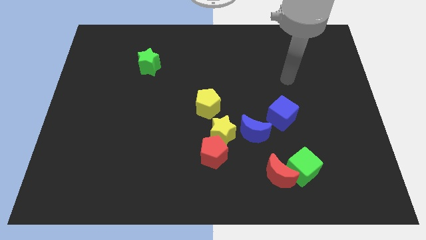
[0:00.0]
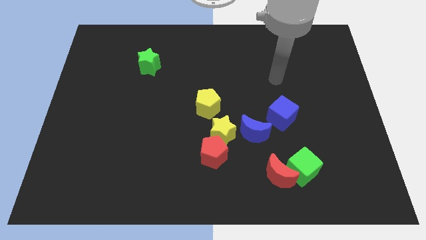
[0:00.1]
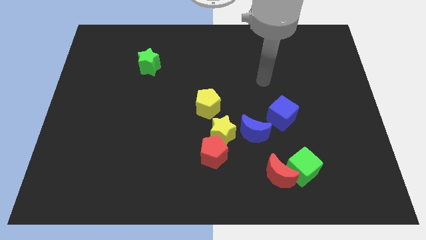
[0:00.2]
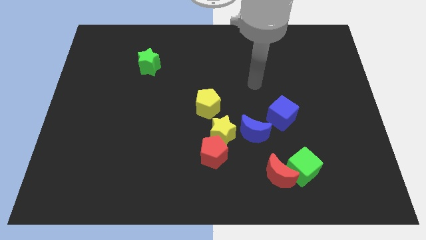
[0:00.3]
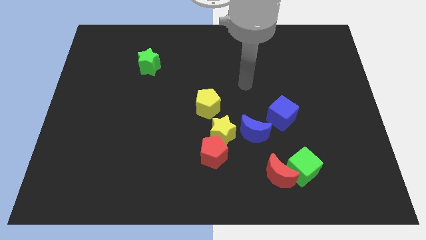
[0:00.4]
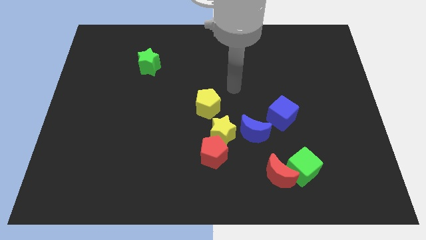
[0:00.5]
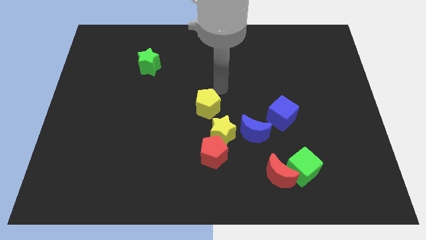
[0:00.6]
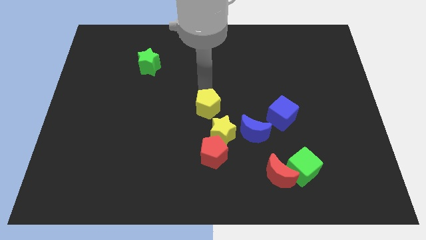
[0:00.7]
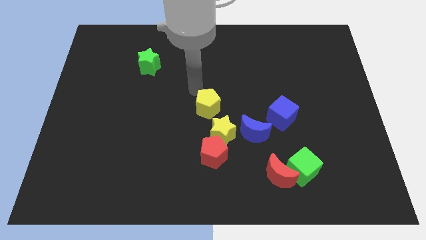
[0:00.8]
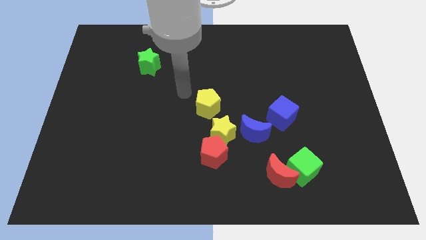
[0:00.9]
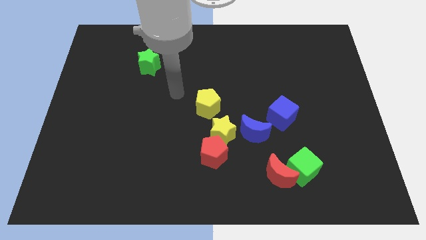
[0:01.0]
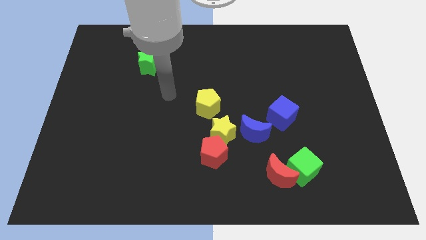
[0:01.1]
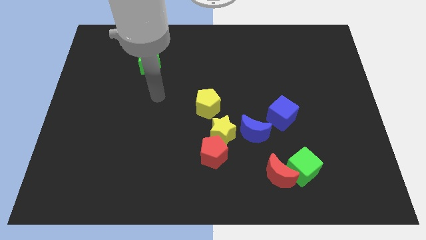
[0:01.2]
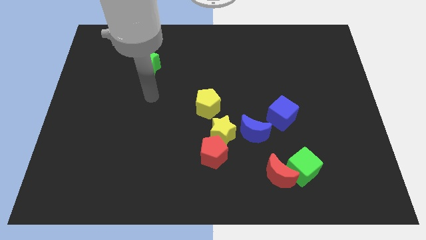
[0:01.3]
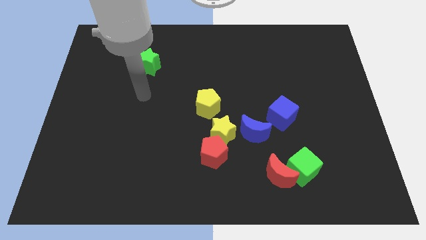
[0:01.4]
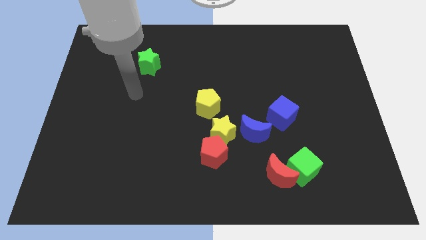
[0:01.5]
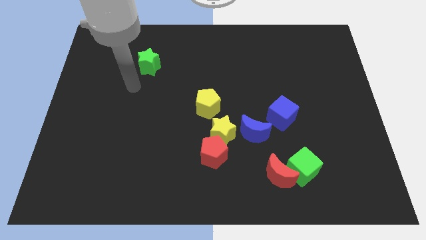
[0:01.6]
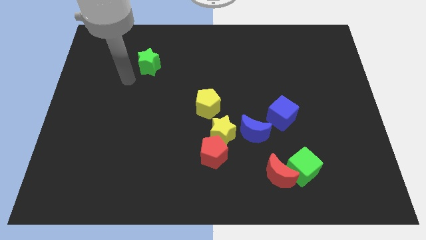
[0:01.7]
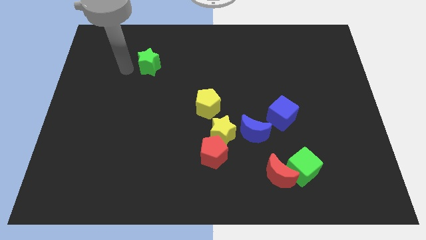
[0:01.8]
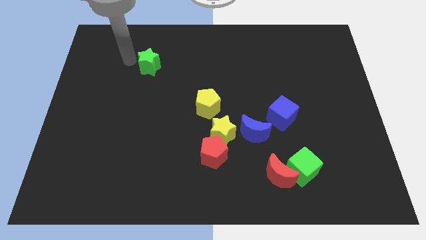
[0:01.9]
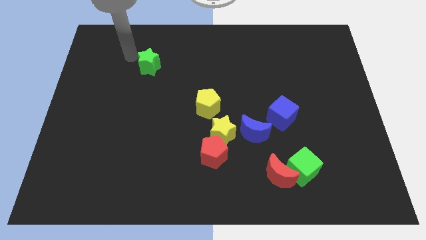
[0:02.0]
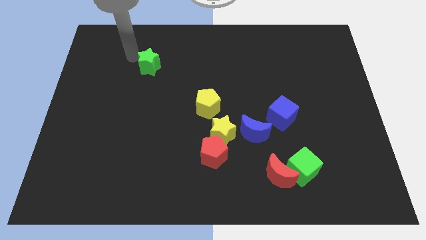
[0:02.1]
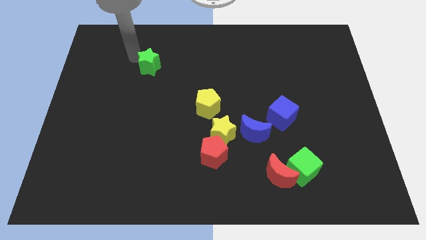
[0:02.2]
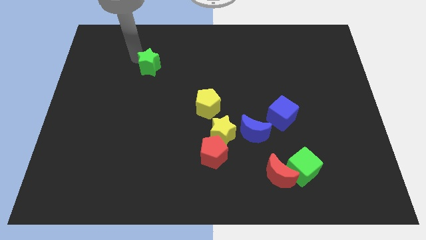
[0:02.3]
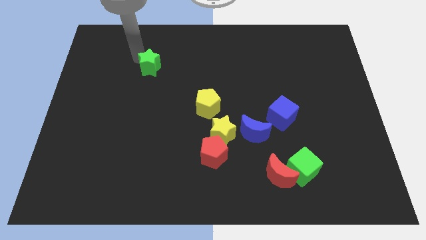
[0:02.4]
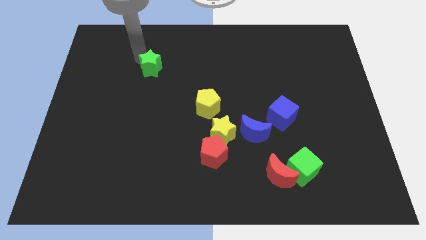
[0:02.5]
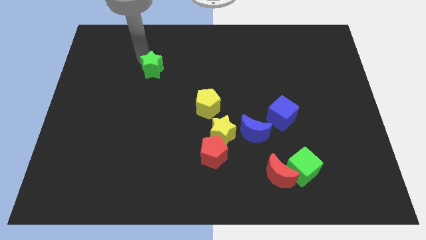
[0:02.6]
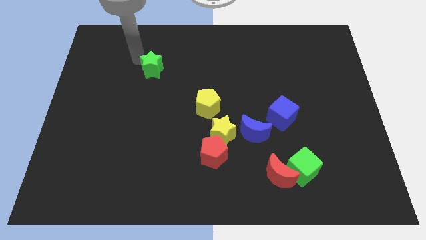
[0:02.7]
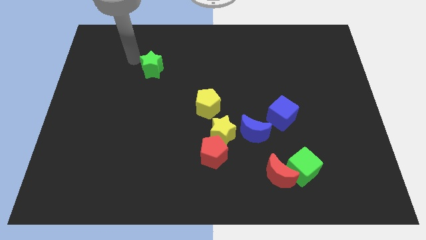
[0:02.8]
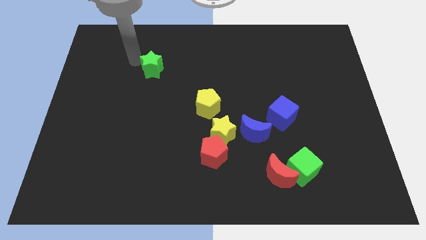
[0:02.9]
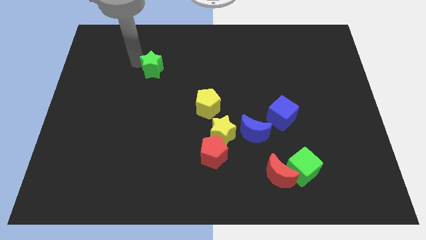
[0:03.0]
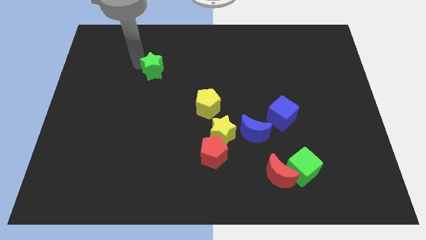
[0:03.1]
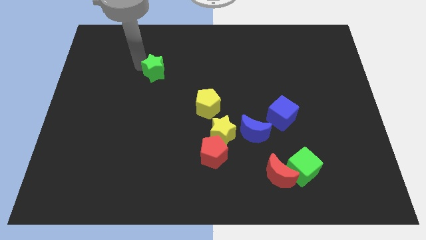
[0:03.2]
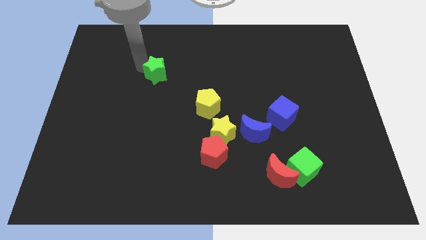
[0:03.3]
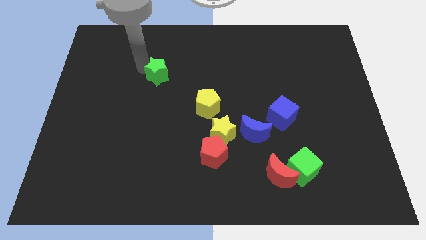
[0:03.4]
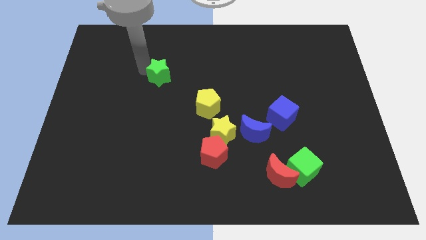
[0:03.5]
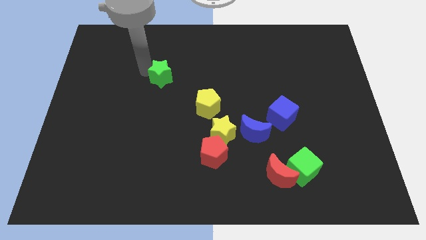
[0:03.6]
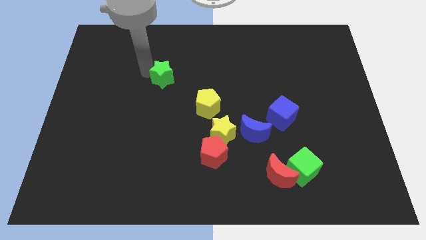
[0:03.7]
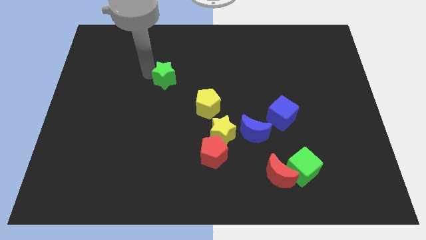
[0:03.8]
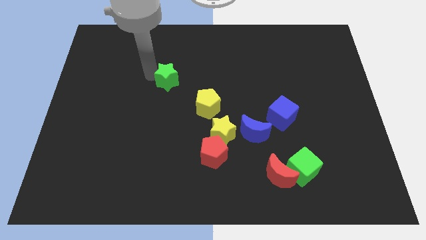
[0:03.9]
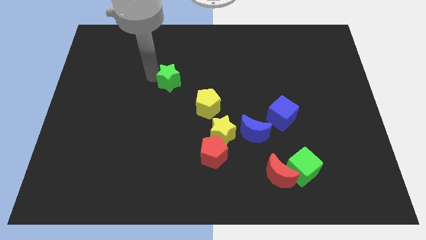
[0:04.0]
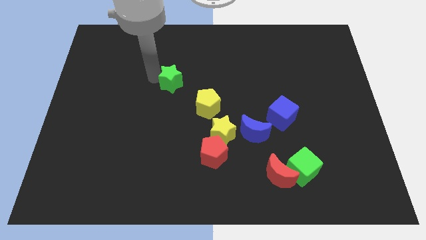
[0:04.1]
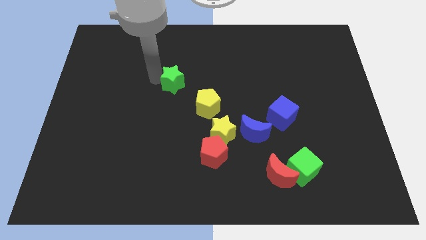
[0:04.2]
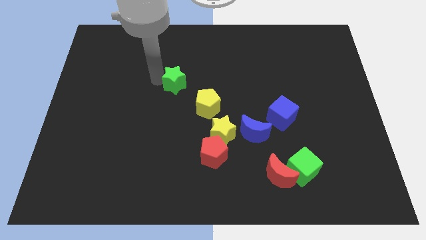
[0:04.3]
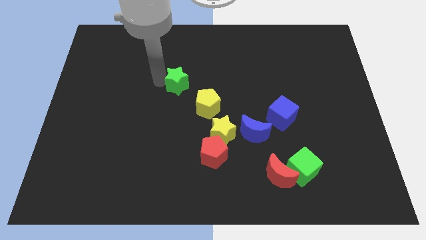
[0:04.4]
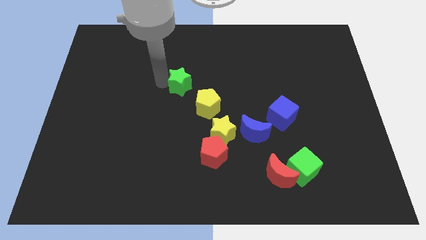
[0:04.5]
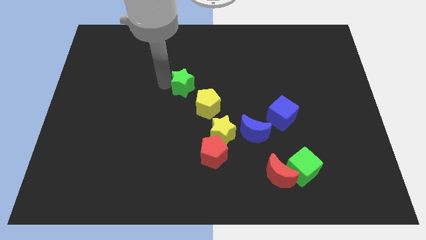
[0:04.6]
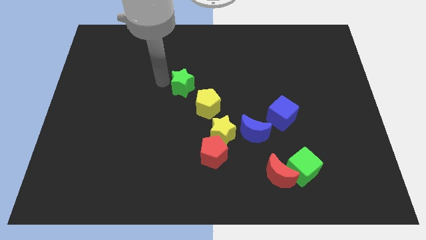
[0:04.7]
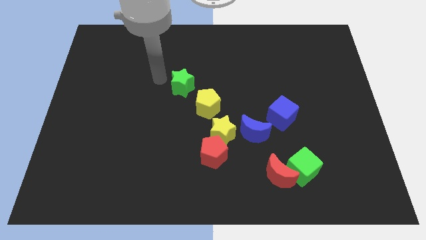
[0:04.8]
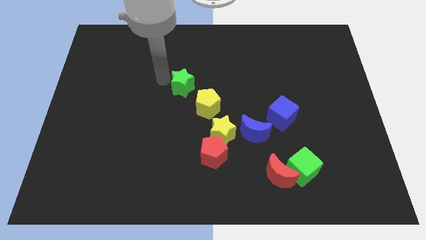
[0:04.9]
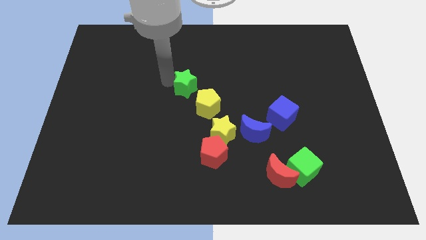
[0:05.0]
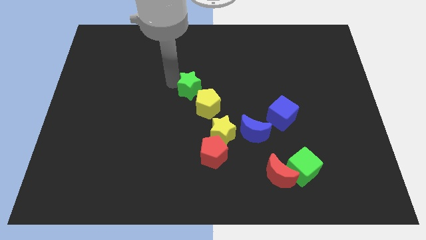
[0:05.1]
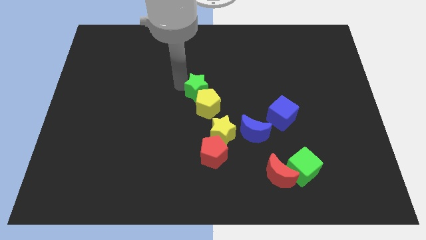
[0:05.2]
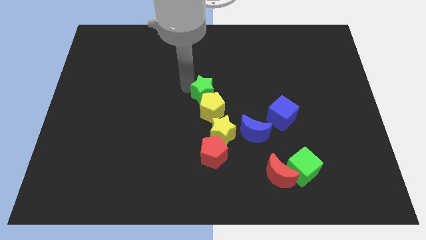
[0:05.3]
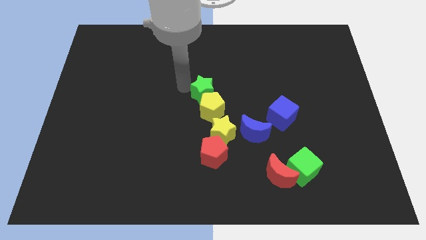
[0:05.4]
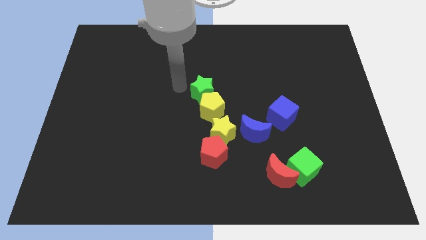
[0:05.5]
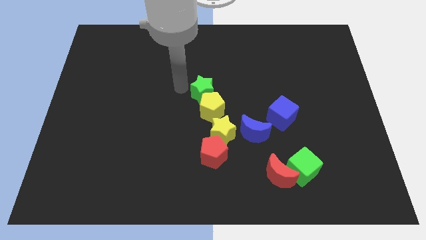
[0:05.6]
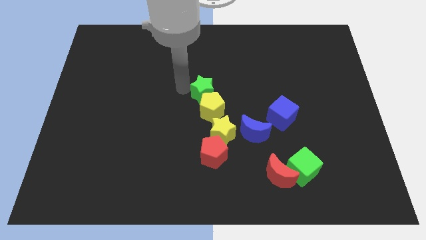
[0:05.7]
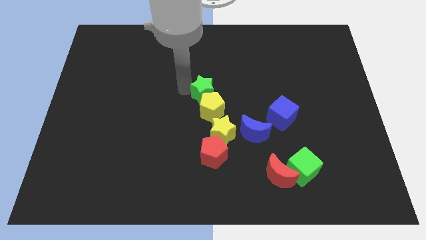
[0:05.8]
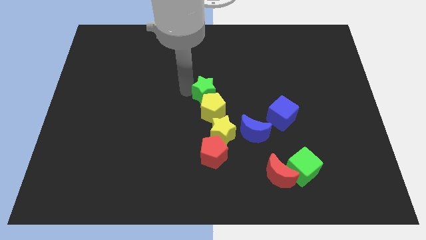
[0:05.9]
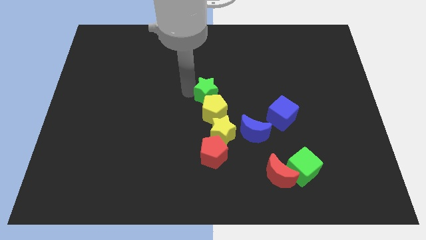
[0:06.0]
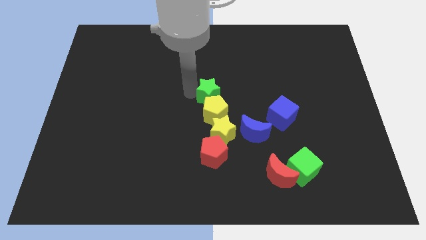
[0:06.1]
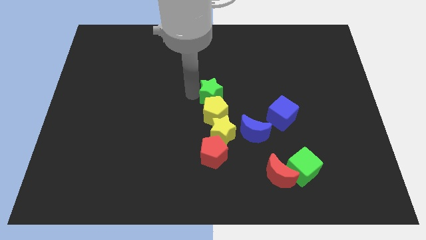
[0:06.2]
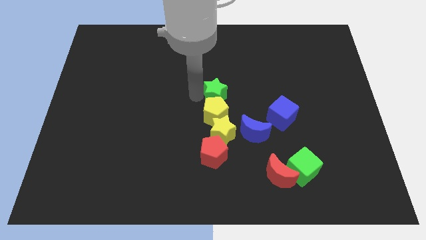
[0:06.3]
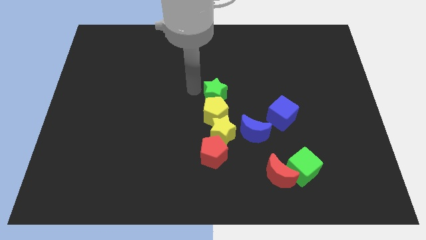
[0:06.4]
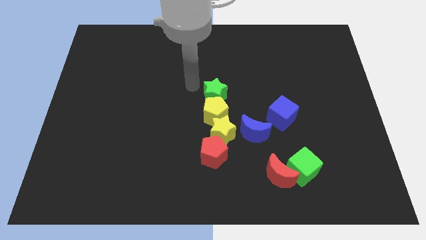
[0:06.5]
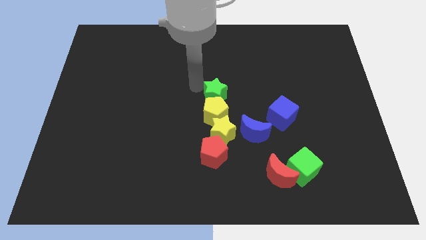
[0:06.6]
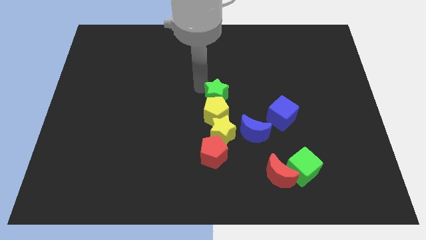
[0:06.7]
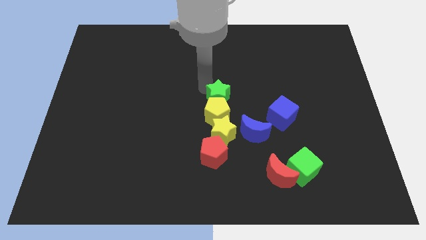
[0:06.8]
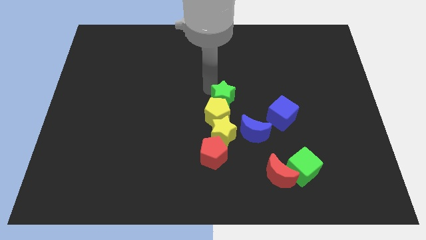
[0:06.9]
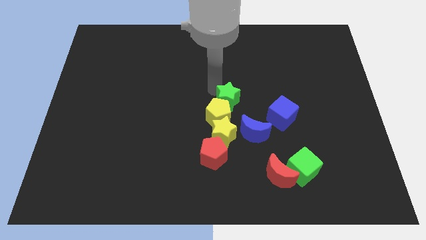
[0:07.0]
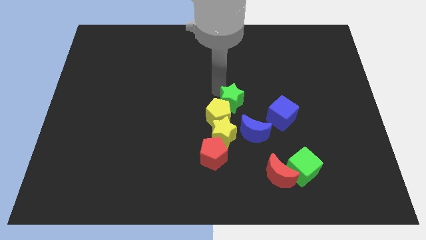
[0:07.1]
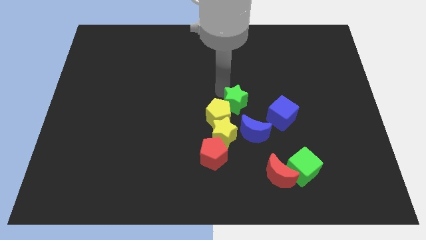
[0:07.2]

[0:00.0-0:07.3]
move the green star to the right of the yellow pentagon
